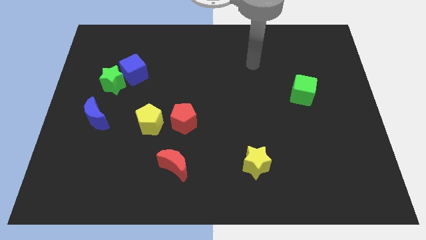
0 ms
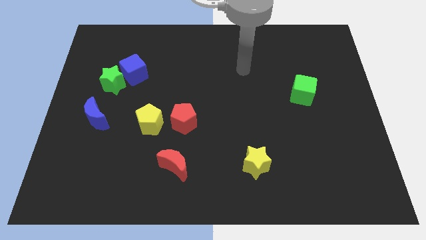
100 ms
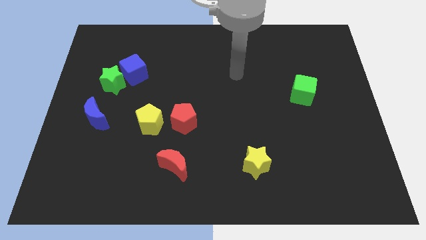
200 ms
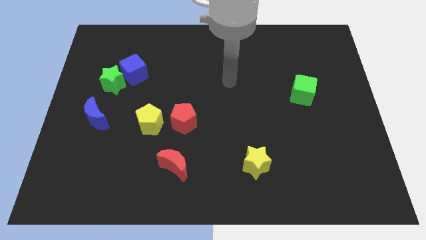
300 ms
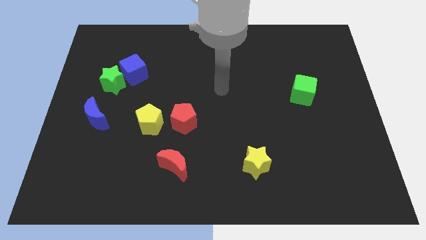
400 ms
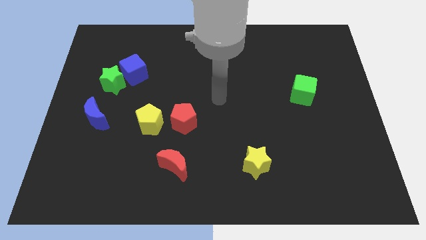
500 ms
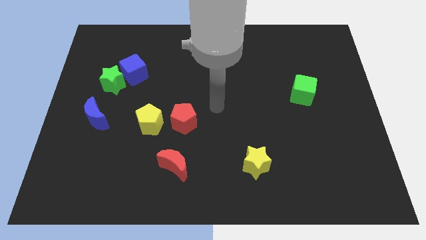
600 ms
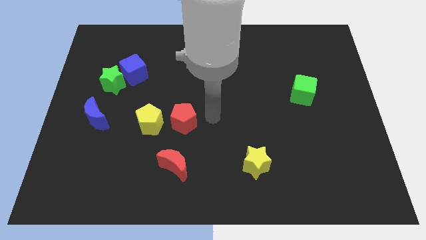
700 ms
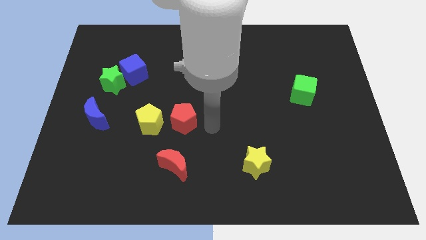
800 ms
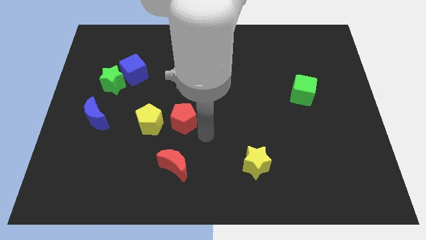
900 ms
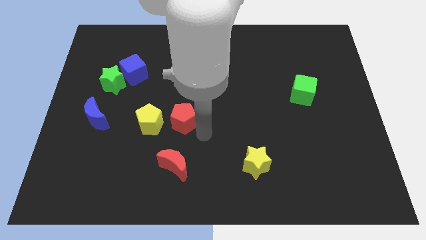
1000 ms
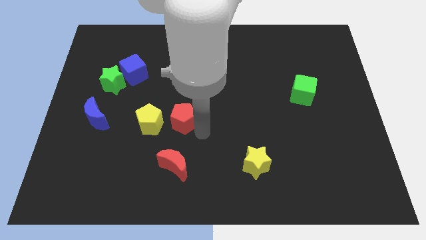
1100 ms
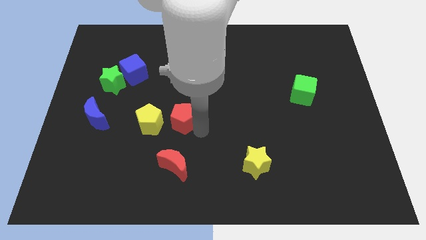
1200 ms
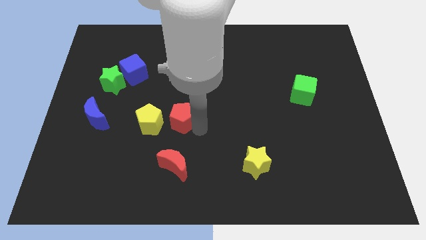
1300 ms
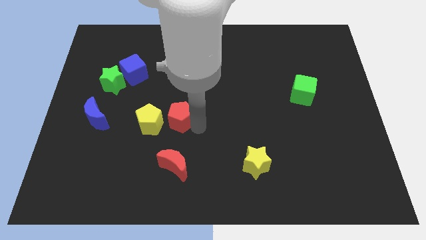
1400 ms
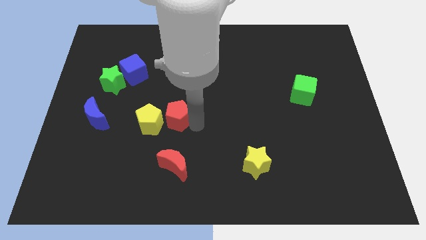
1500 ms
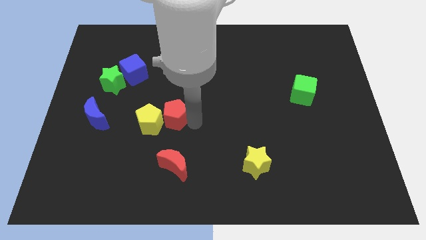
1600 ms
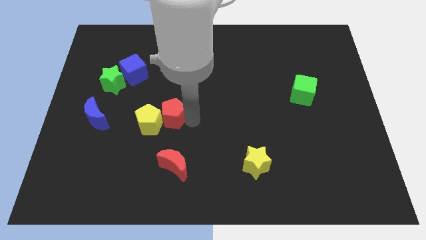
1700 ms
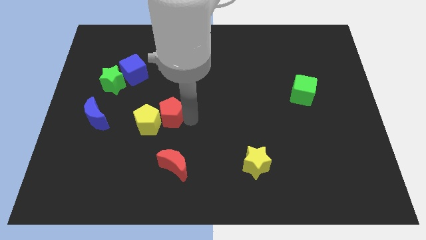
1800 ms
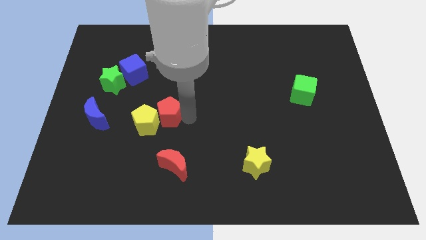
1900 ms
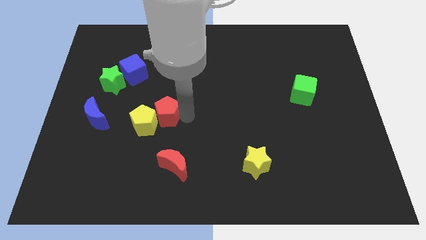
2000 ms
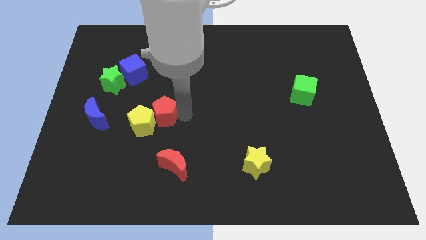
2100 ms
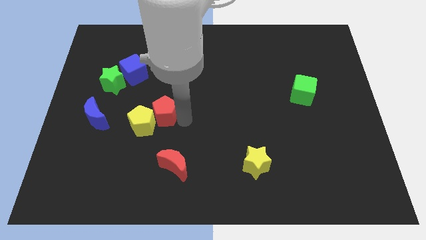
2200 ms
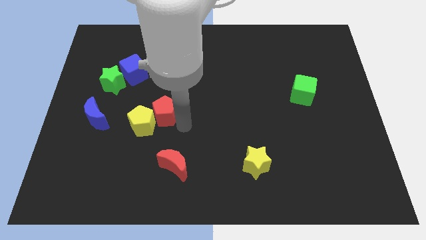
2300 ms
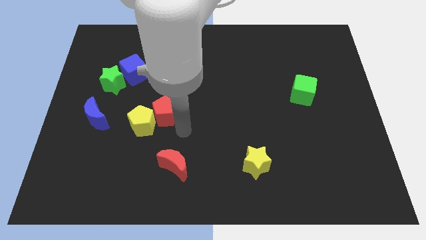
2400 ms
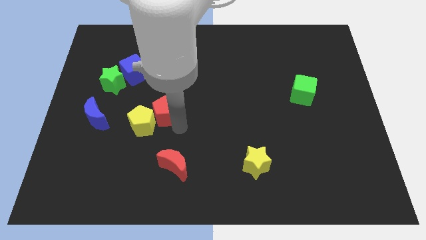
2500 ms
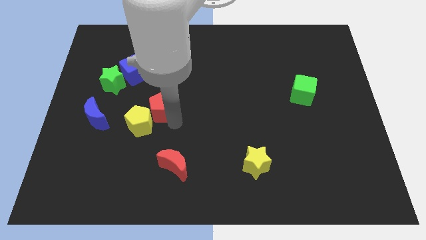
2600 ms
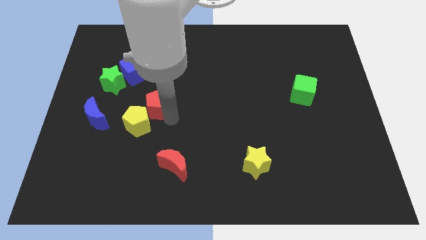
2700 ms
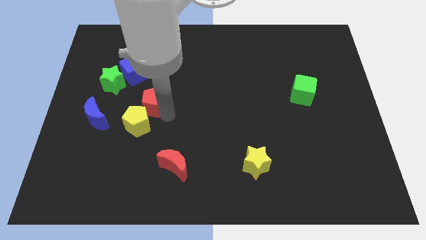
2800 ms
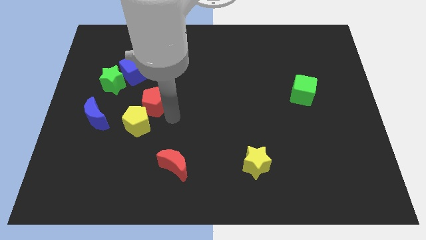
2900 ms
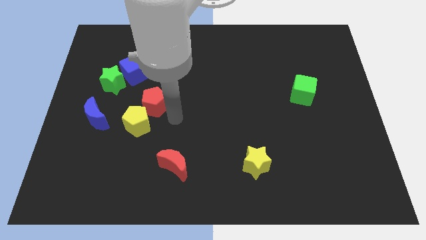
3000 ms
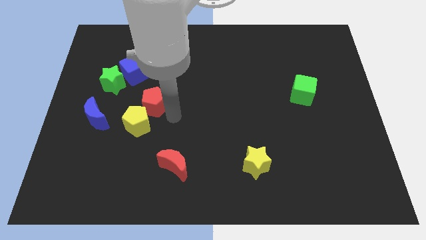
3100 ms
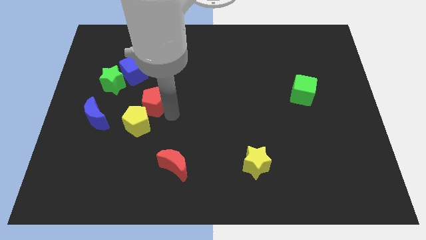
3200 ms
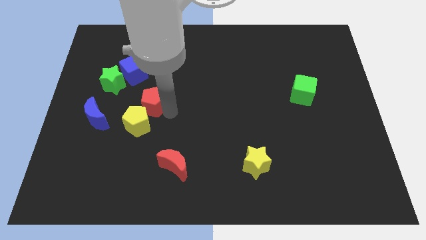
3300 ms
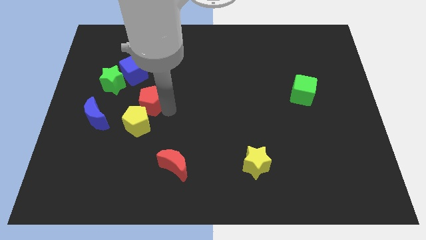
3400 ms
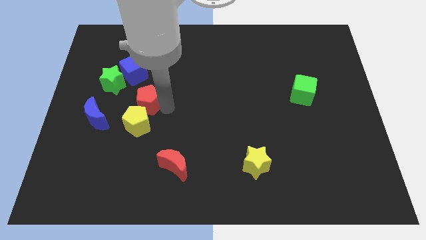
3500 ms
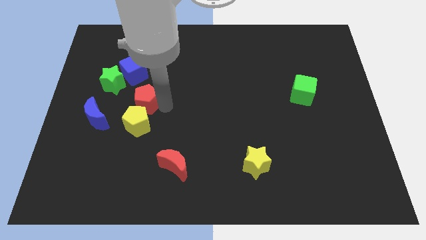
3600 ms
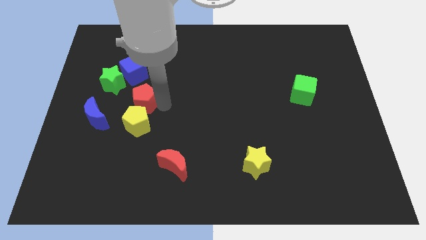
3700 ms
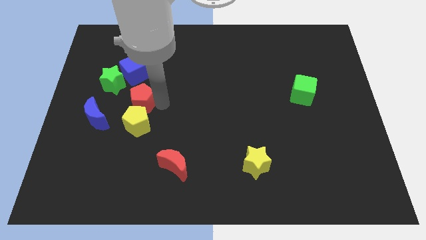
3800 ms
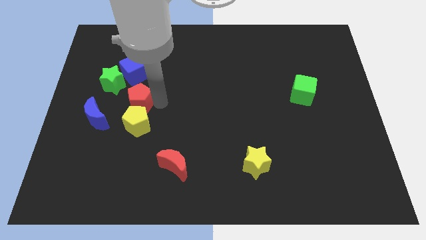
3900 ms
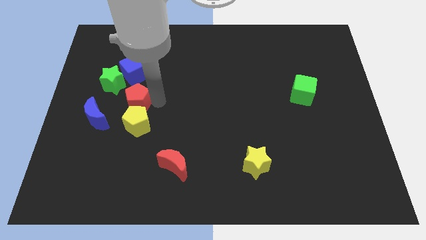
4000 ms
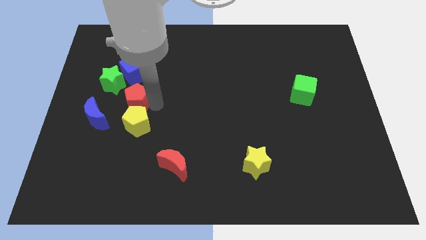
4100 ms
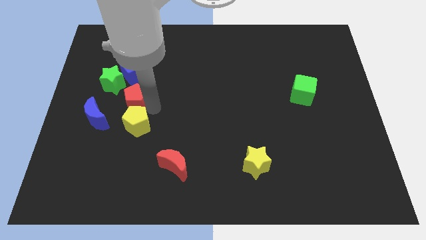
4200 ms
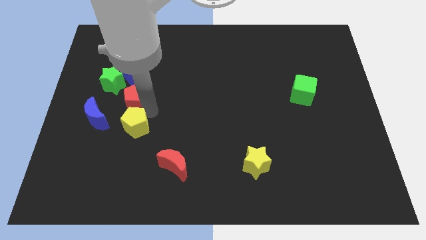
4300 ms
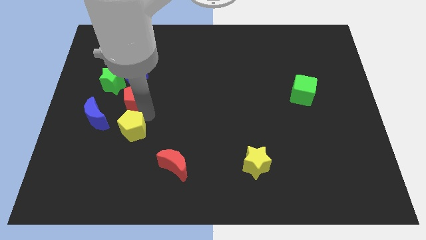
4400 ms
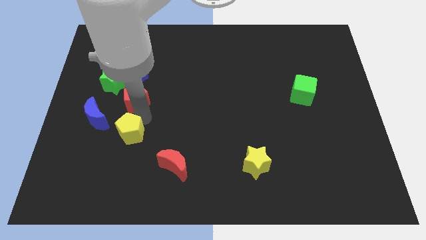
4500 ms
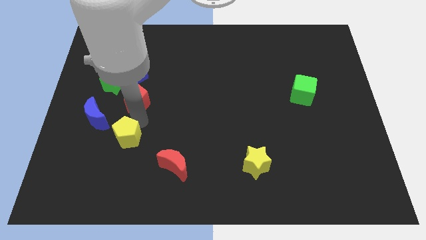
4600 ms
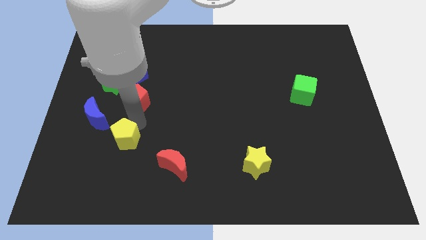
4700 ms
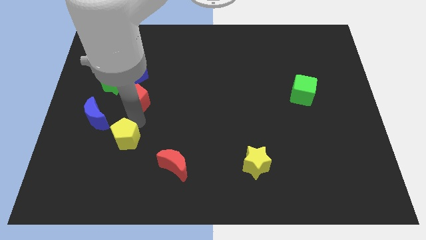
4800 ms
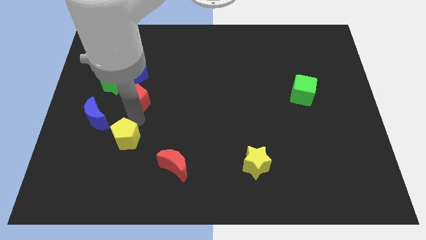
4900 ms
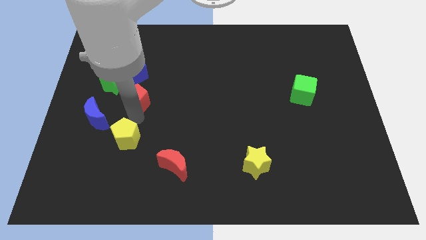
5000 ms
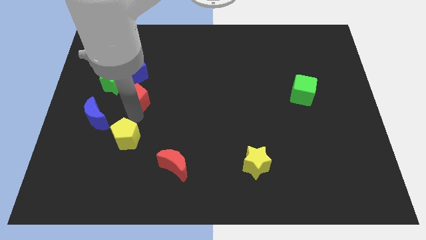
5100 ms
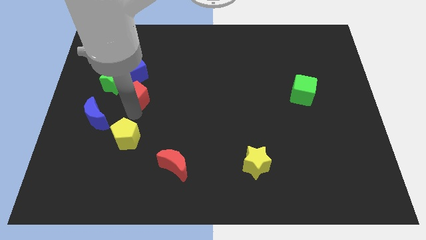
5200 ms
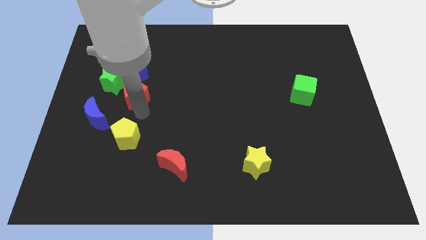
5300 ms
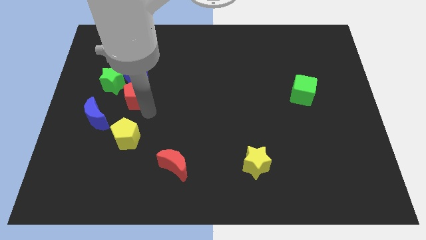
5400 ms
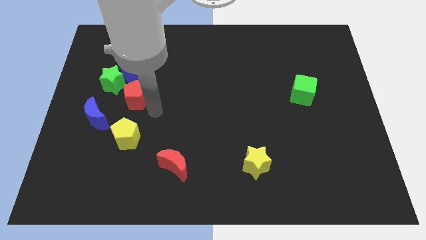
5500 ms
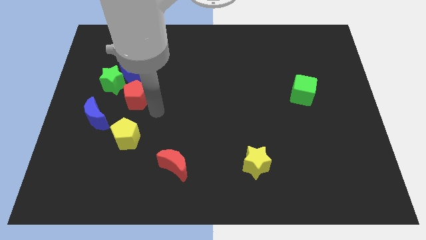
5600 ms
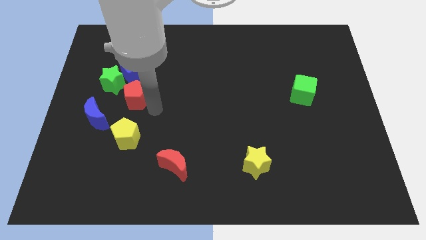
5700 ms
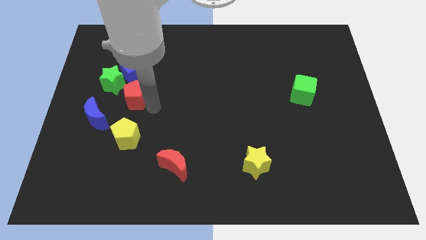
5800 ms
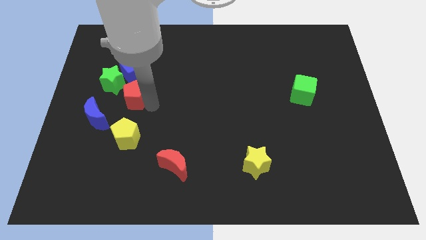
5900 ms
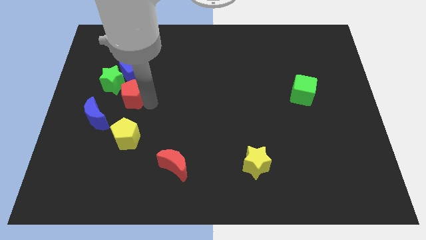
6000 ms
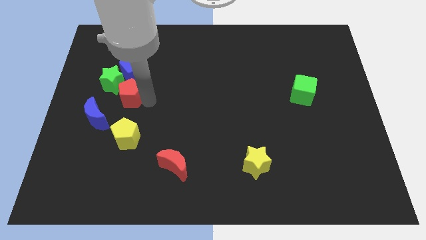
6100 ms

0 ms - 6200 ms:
push the red pentagon to the green star

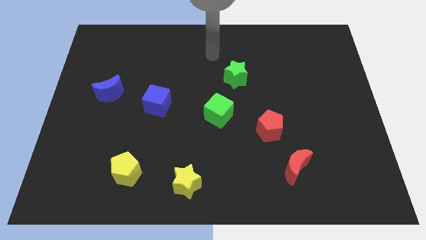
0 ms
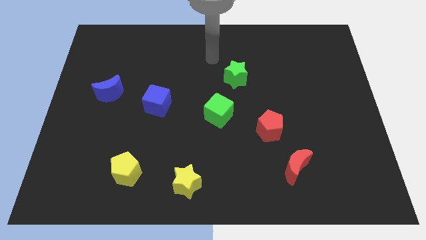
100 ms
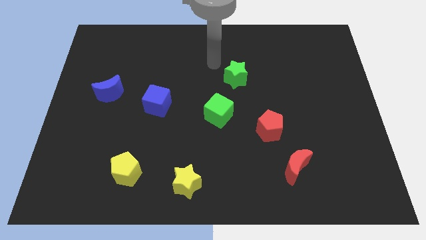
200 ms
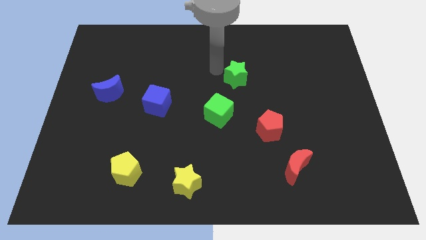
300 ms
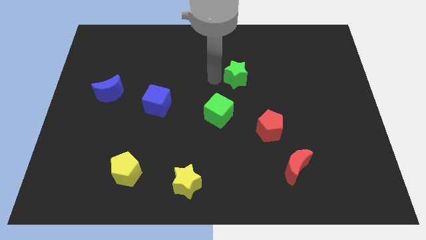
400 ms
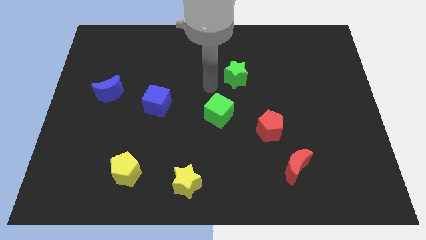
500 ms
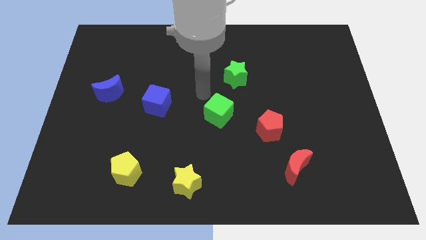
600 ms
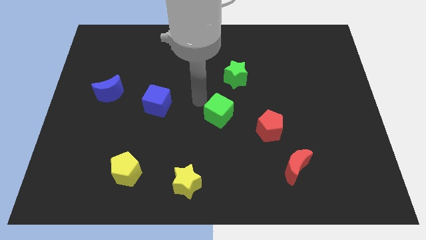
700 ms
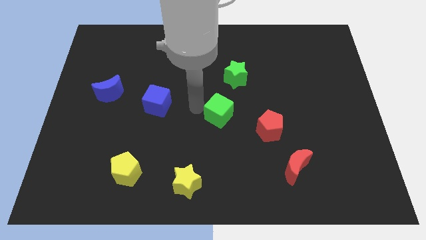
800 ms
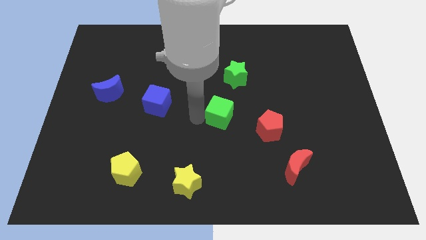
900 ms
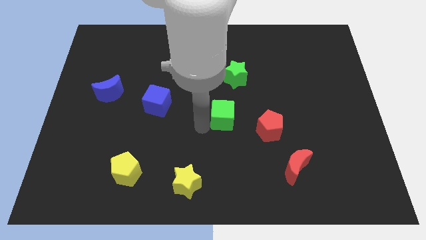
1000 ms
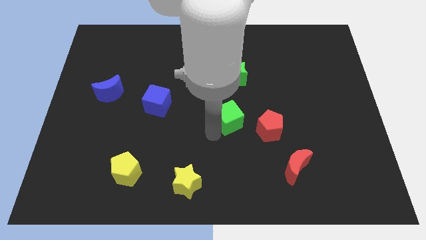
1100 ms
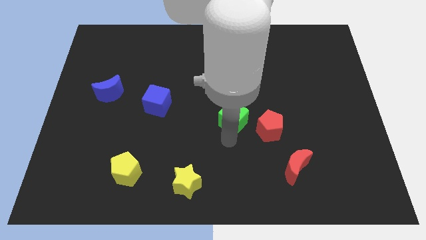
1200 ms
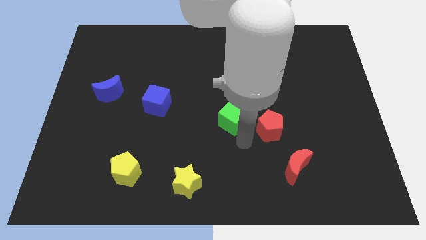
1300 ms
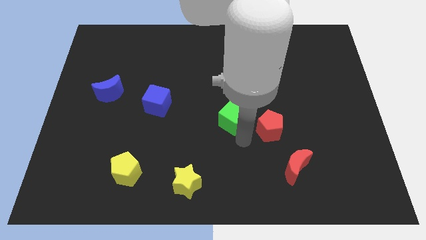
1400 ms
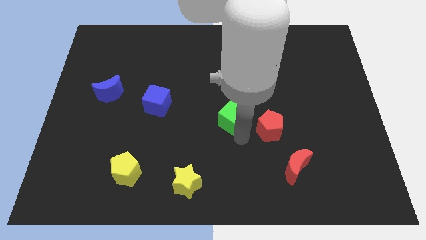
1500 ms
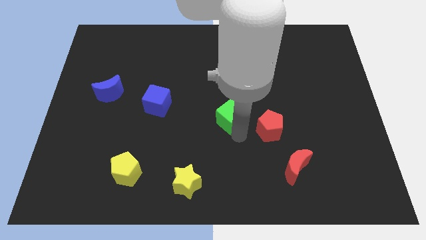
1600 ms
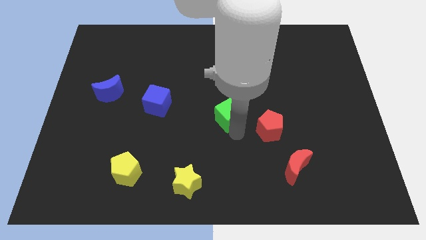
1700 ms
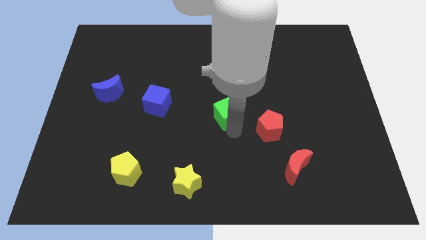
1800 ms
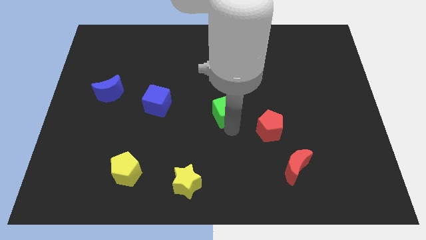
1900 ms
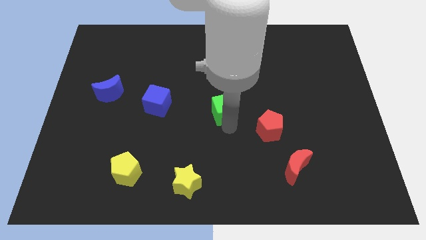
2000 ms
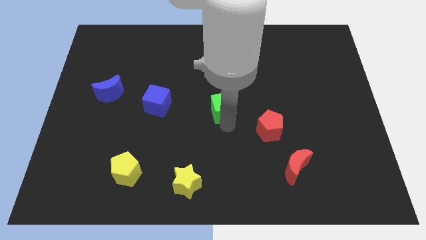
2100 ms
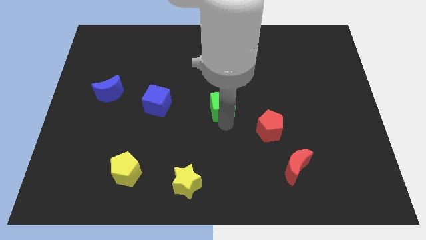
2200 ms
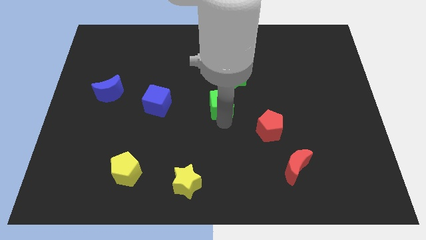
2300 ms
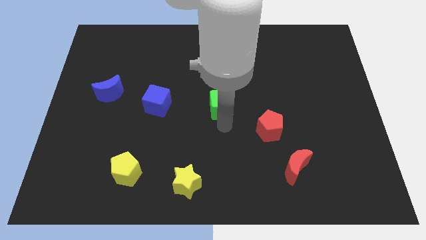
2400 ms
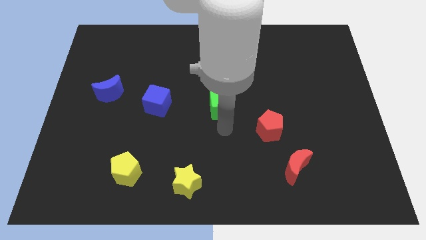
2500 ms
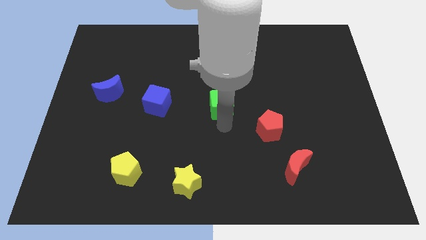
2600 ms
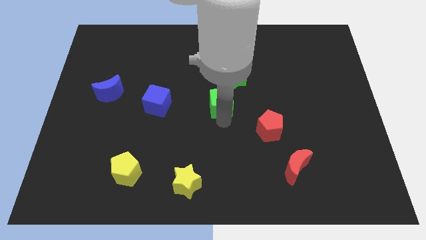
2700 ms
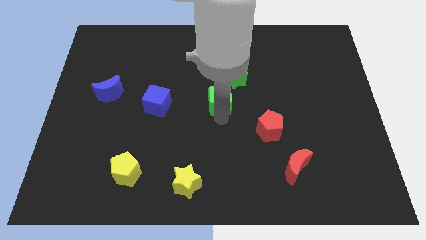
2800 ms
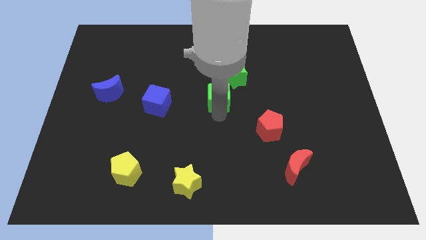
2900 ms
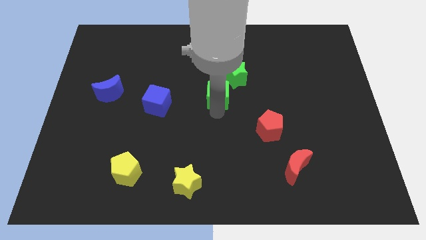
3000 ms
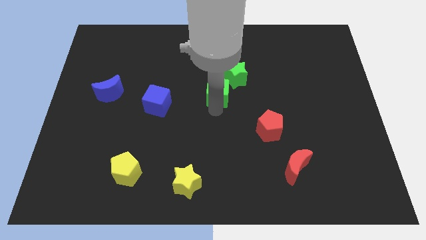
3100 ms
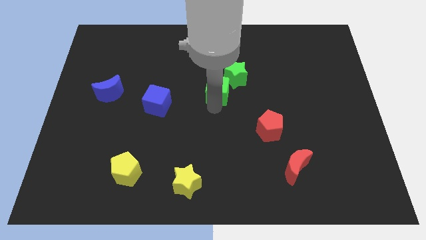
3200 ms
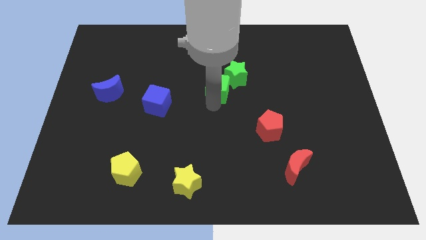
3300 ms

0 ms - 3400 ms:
move the green cube to the green star
